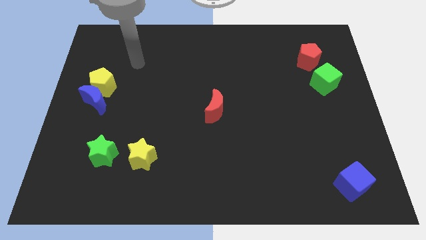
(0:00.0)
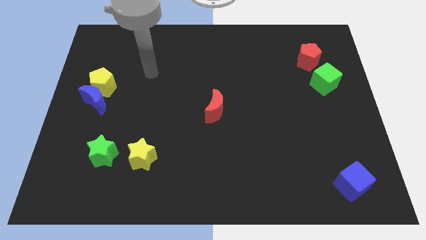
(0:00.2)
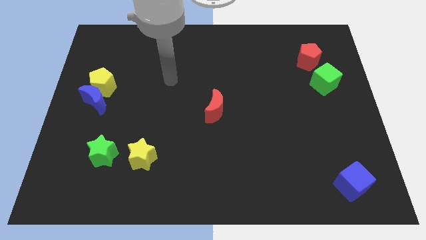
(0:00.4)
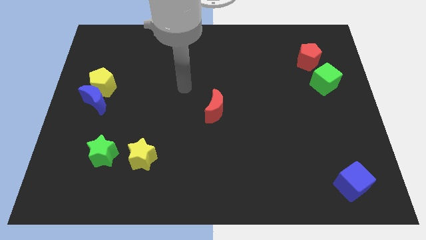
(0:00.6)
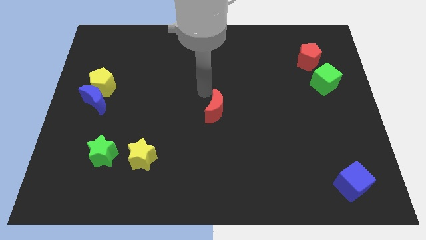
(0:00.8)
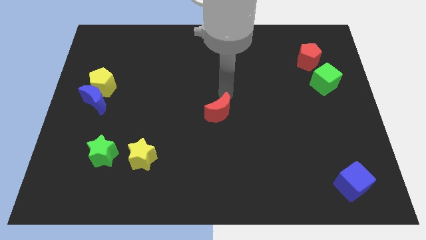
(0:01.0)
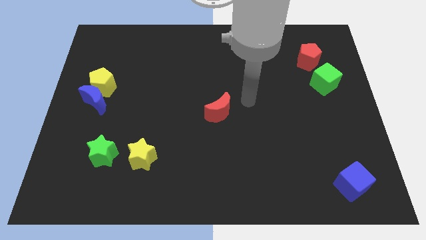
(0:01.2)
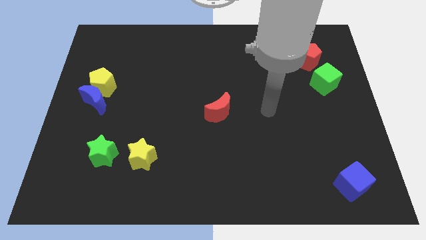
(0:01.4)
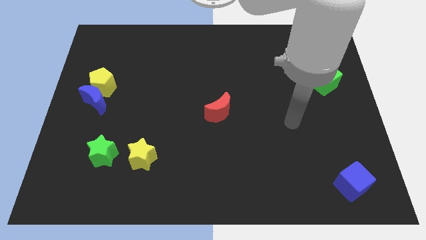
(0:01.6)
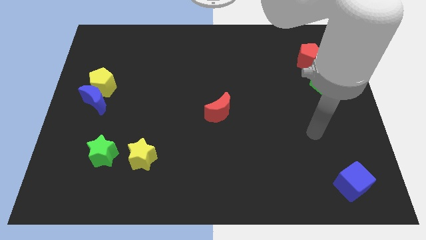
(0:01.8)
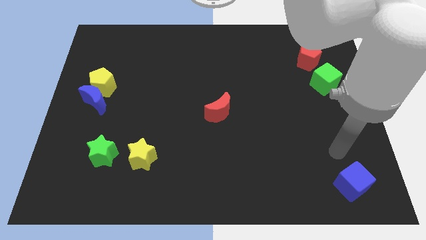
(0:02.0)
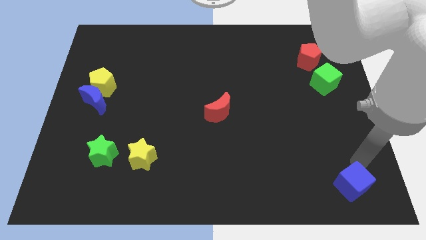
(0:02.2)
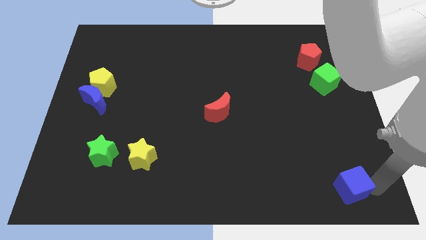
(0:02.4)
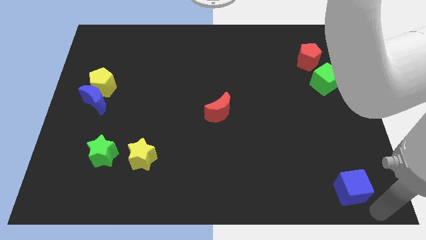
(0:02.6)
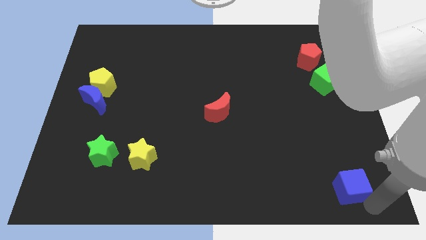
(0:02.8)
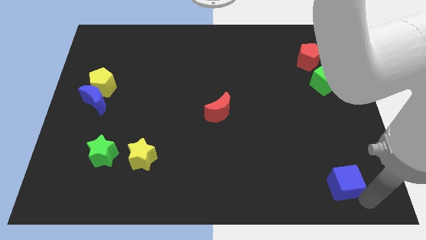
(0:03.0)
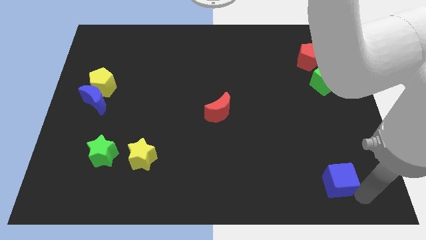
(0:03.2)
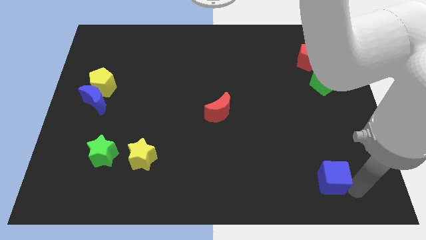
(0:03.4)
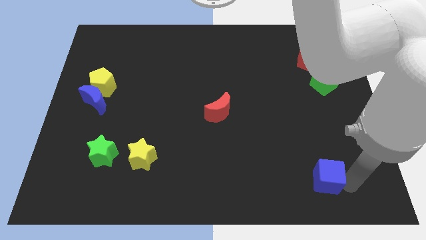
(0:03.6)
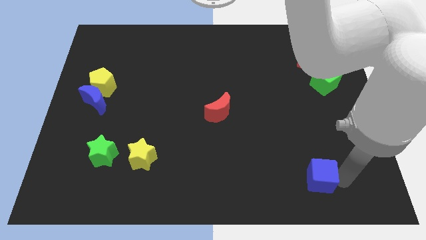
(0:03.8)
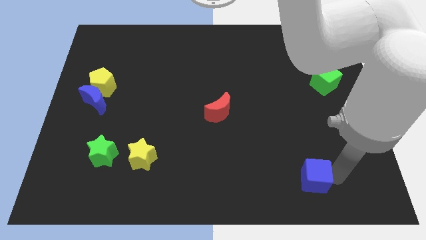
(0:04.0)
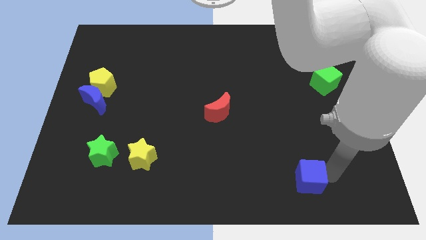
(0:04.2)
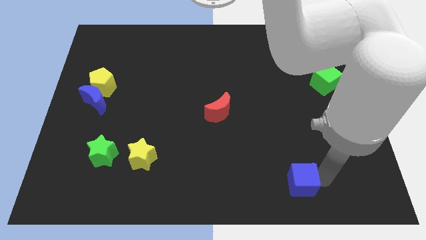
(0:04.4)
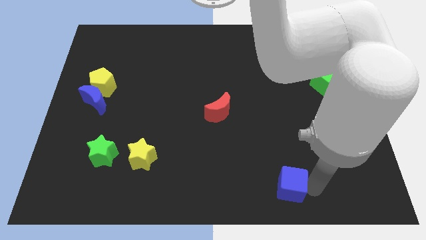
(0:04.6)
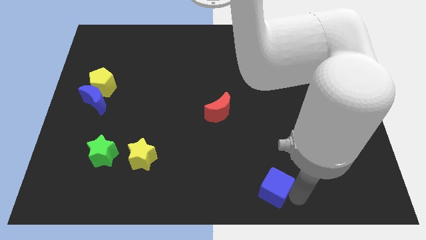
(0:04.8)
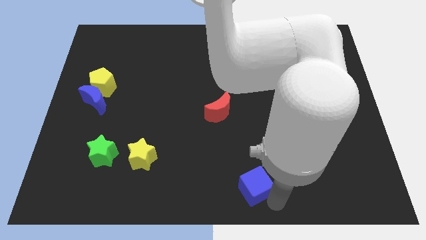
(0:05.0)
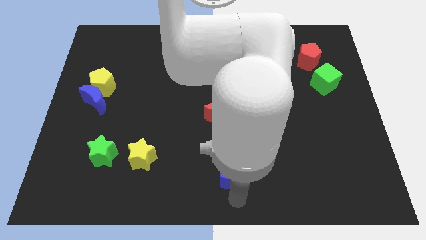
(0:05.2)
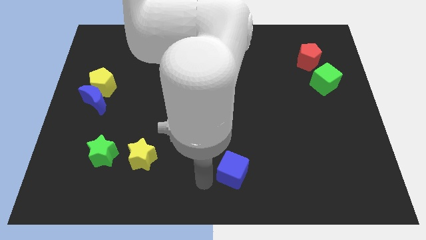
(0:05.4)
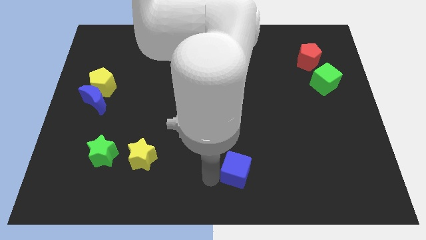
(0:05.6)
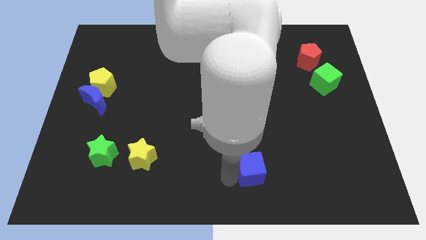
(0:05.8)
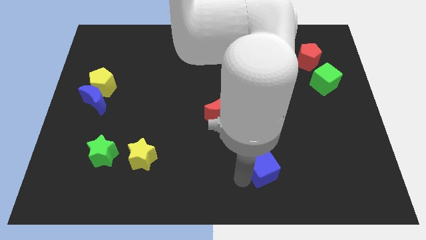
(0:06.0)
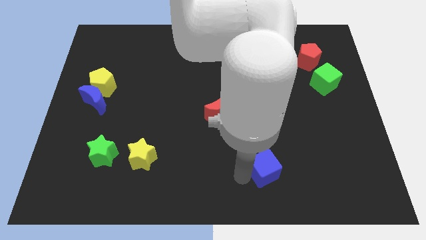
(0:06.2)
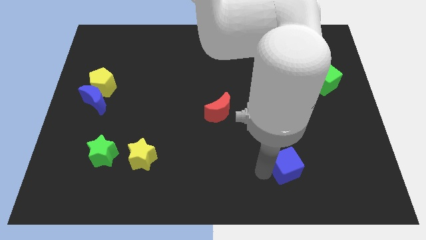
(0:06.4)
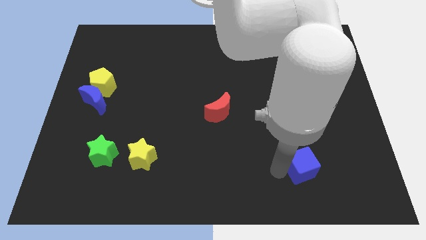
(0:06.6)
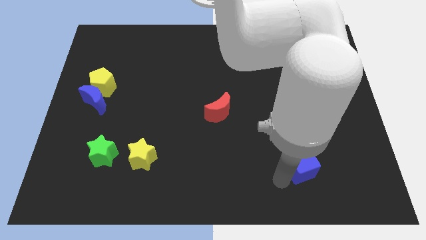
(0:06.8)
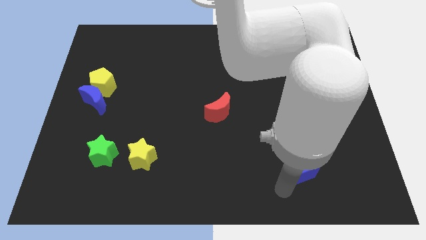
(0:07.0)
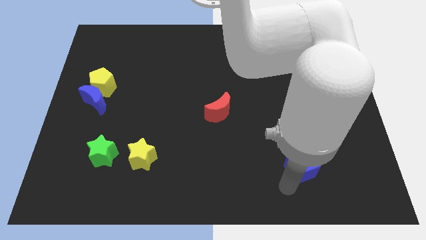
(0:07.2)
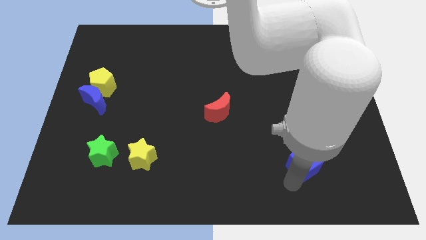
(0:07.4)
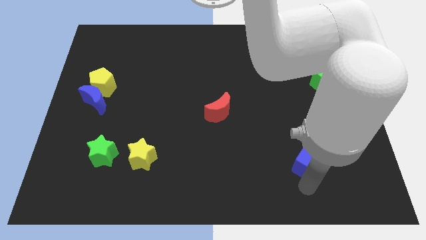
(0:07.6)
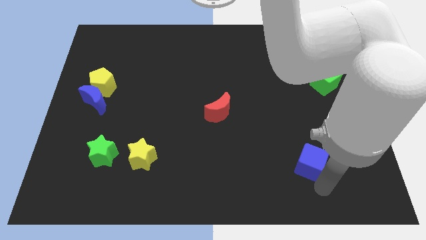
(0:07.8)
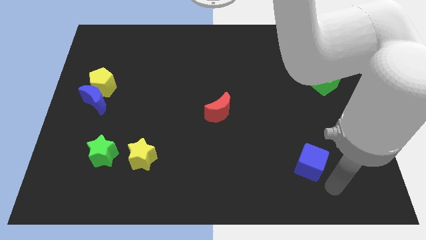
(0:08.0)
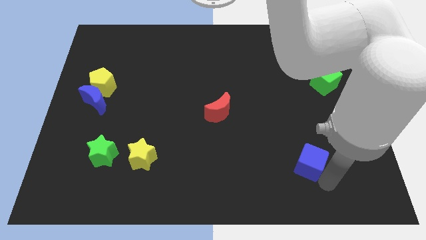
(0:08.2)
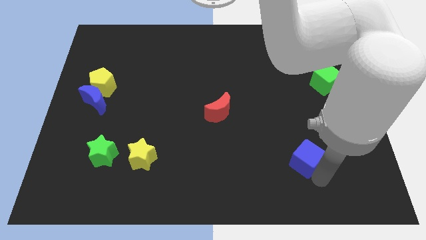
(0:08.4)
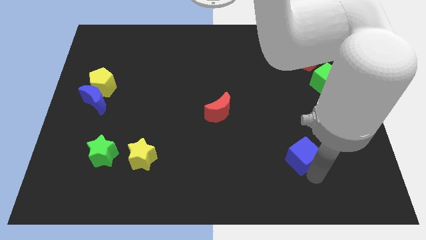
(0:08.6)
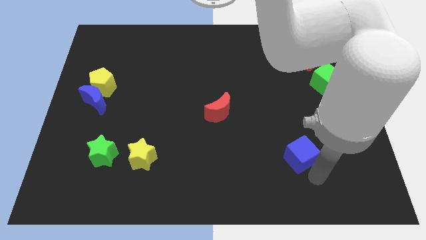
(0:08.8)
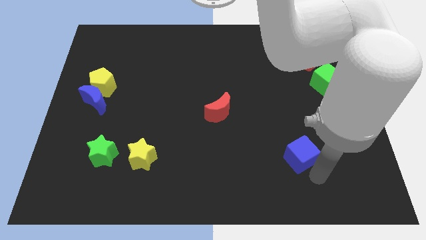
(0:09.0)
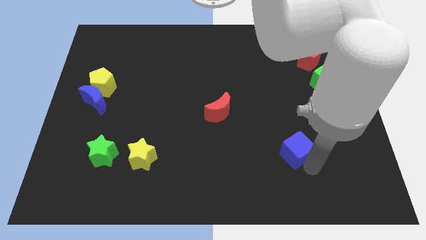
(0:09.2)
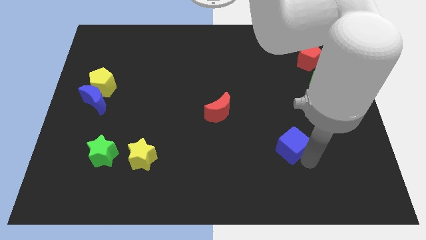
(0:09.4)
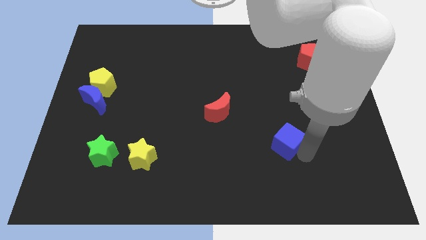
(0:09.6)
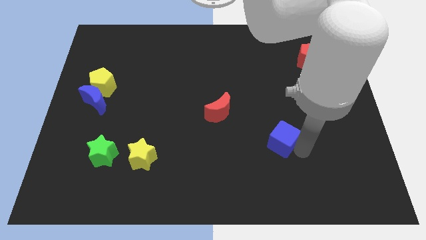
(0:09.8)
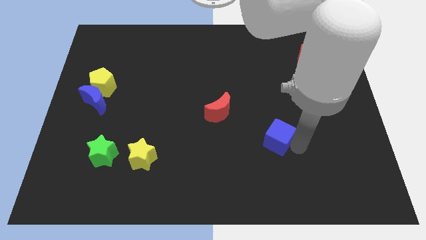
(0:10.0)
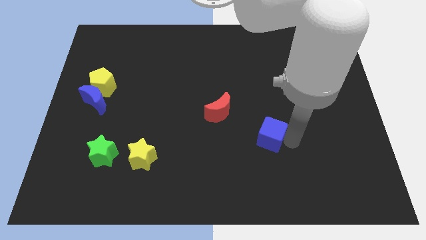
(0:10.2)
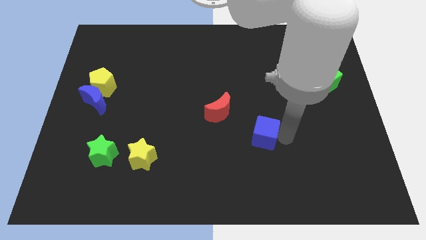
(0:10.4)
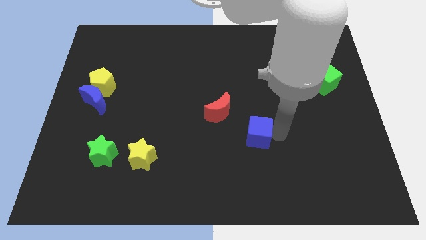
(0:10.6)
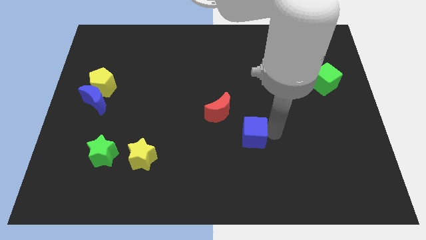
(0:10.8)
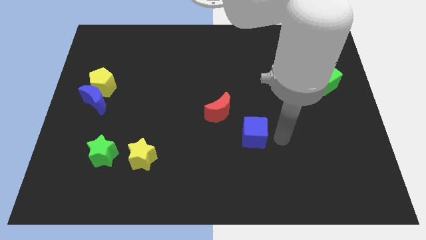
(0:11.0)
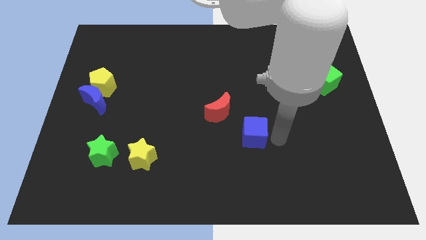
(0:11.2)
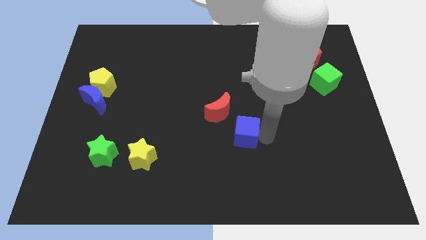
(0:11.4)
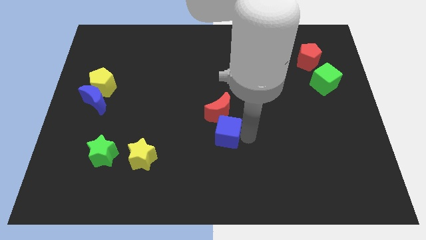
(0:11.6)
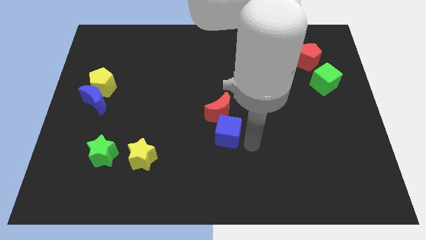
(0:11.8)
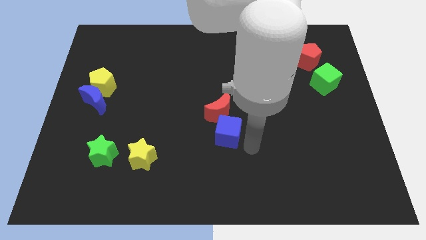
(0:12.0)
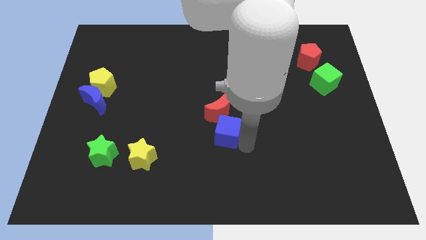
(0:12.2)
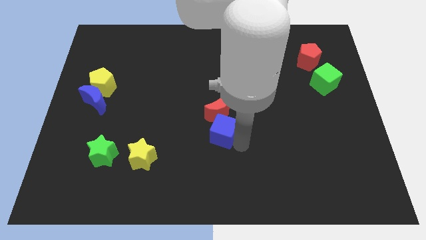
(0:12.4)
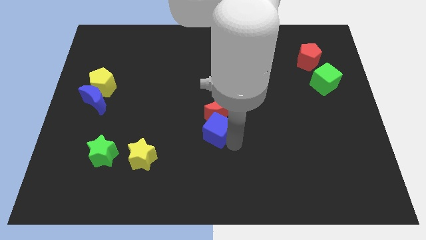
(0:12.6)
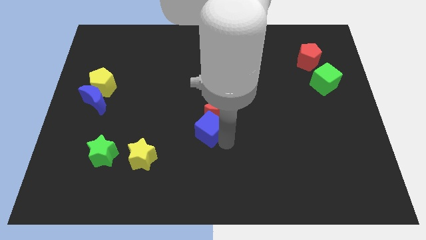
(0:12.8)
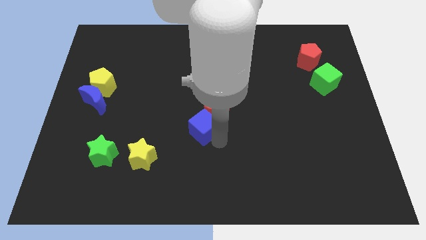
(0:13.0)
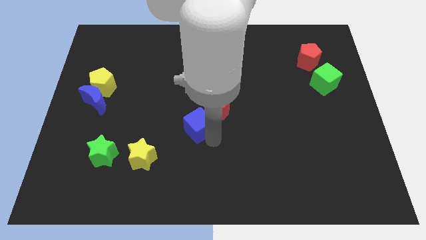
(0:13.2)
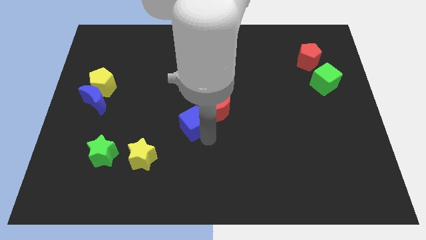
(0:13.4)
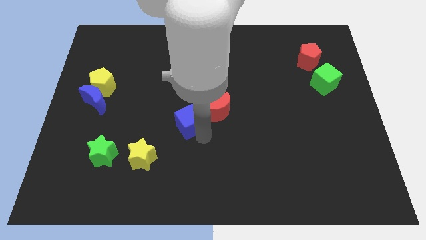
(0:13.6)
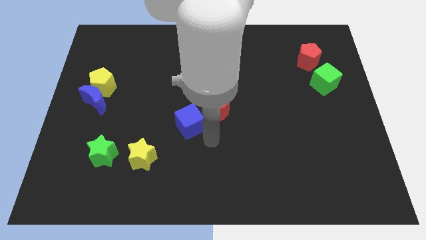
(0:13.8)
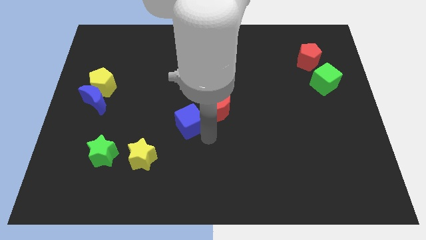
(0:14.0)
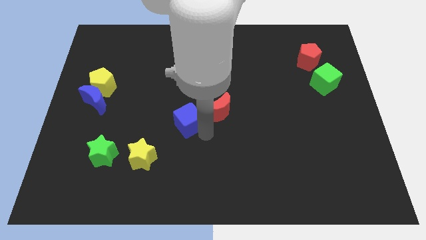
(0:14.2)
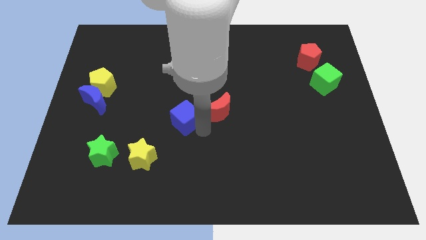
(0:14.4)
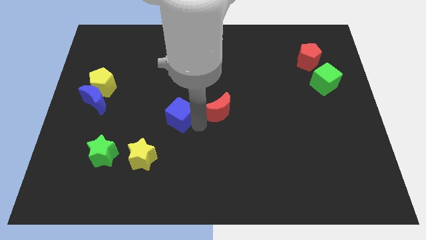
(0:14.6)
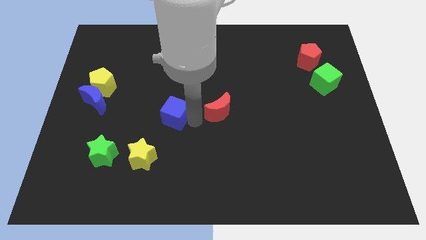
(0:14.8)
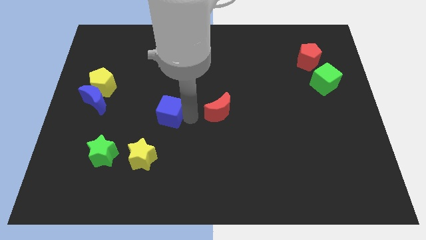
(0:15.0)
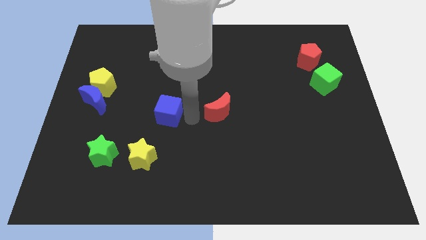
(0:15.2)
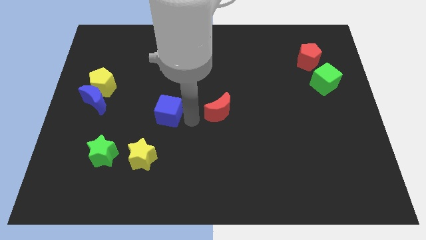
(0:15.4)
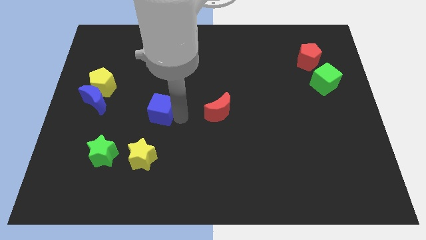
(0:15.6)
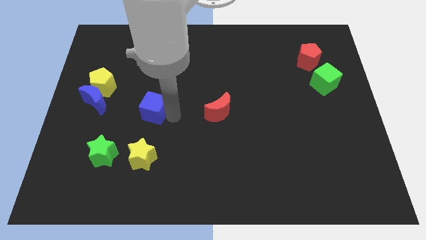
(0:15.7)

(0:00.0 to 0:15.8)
move the blue cube just right of the blue moon
